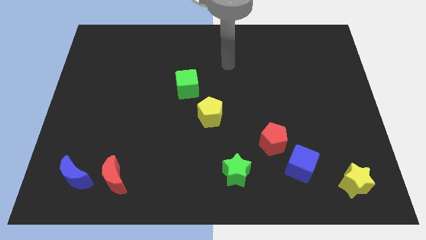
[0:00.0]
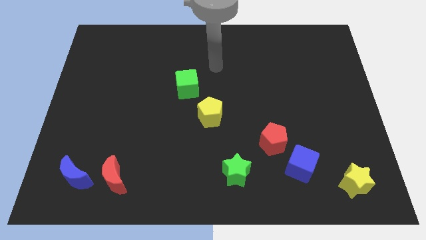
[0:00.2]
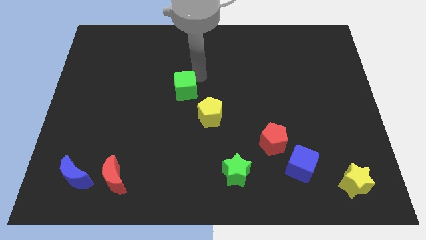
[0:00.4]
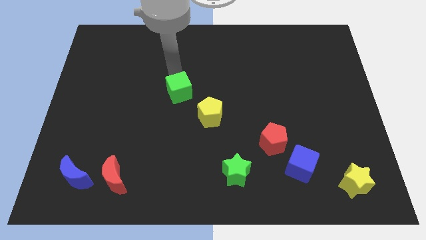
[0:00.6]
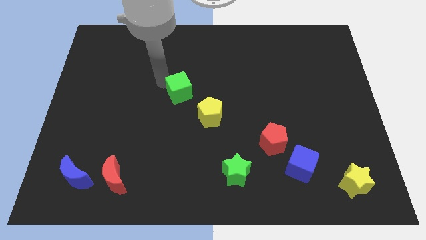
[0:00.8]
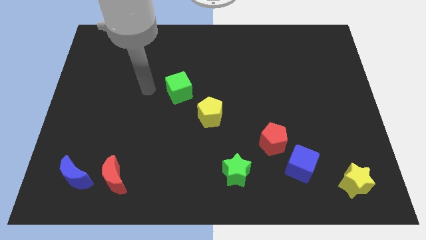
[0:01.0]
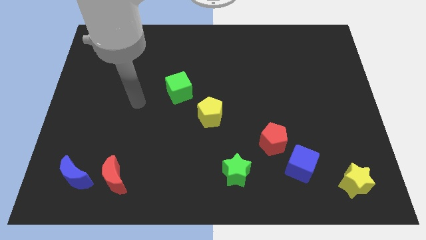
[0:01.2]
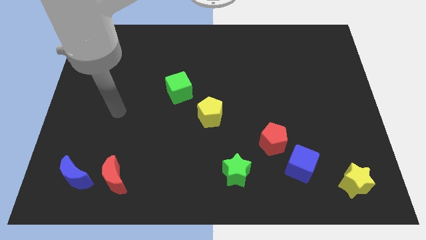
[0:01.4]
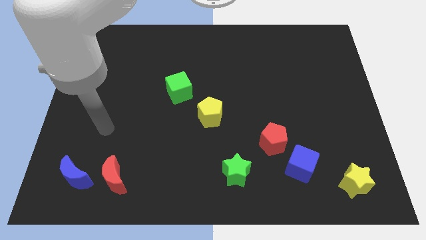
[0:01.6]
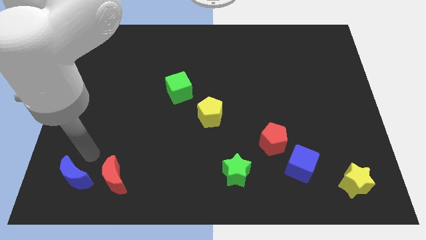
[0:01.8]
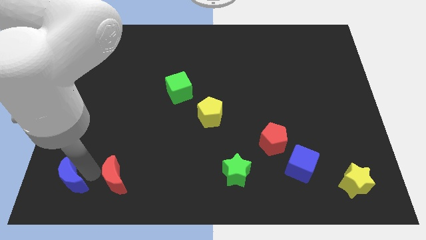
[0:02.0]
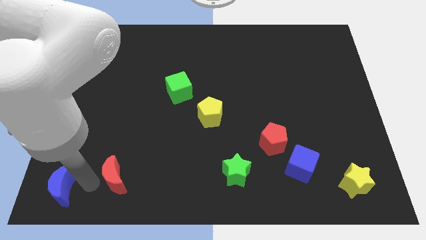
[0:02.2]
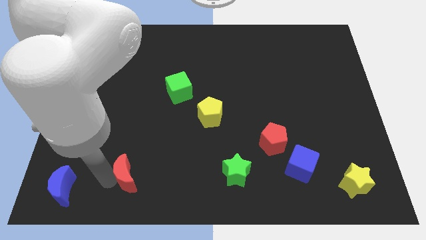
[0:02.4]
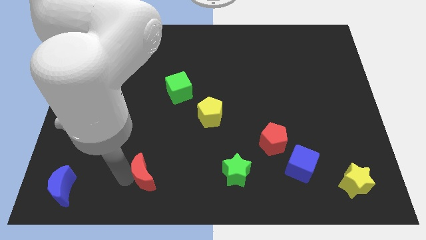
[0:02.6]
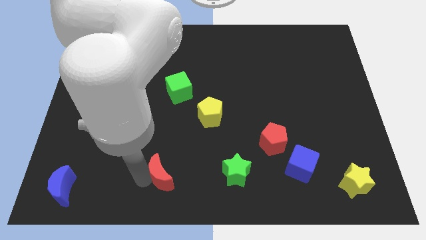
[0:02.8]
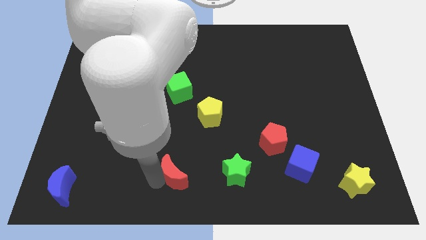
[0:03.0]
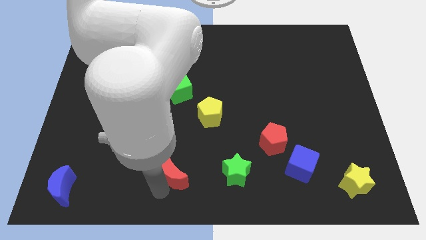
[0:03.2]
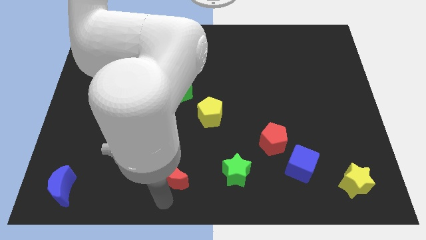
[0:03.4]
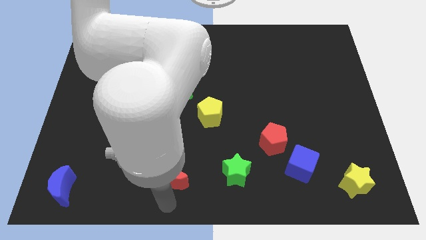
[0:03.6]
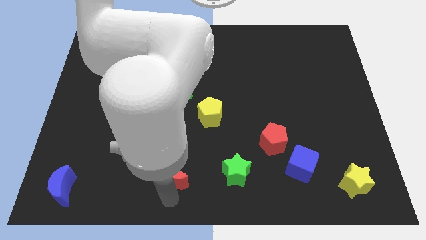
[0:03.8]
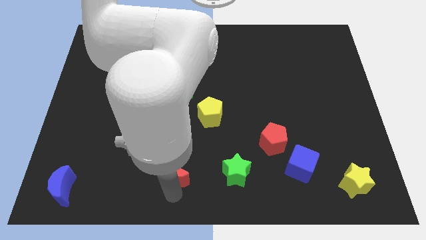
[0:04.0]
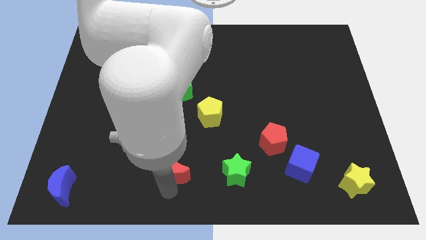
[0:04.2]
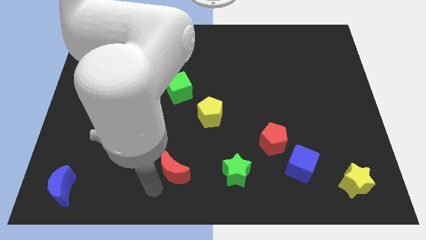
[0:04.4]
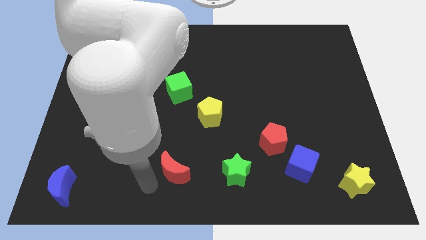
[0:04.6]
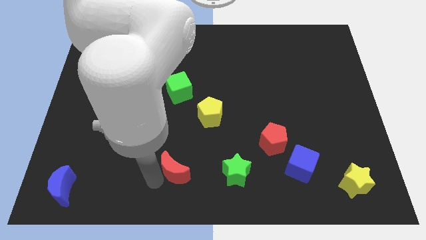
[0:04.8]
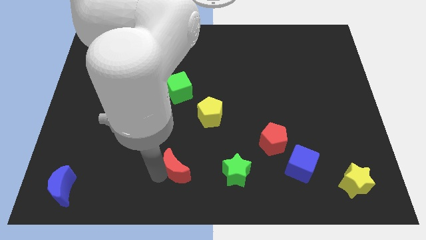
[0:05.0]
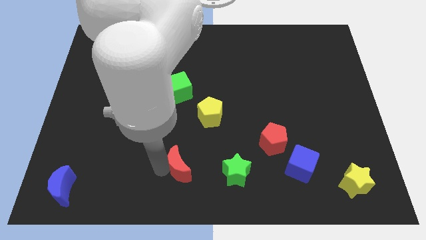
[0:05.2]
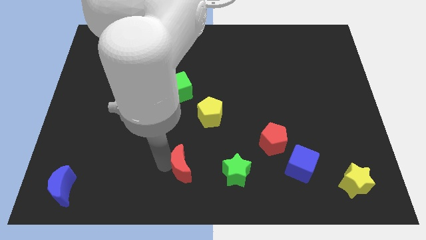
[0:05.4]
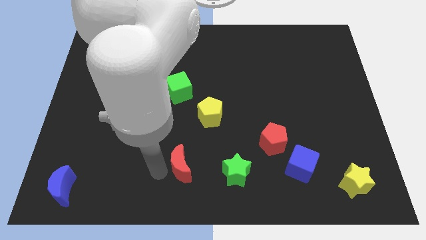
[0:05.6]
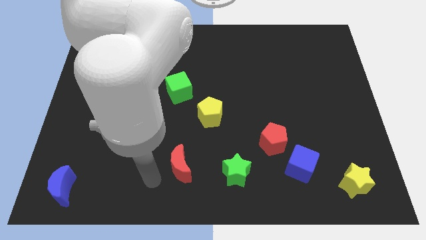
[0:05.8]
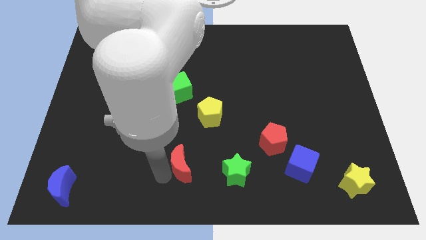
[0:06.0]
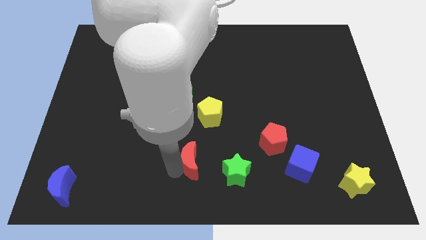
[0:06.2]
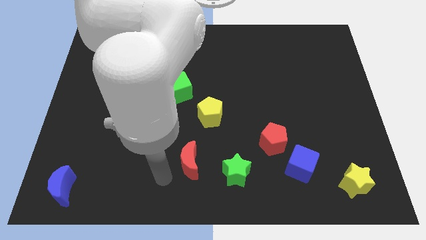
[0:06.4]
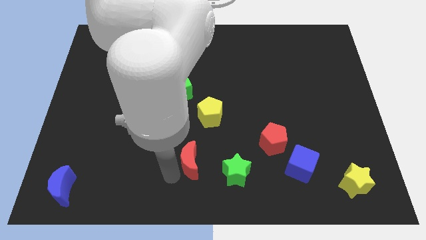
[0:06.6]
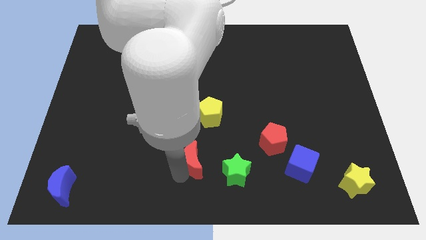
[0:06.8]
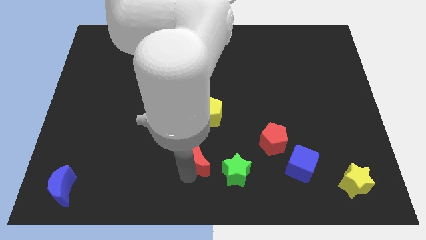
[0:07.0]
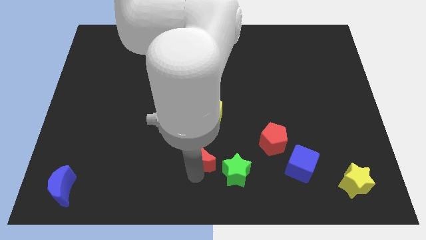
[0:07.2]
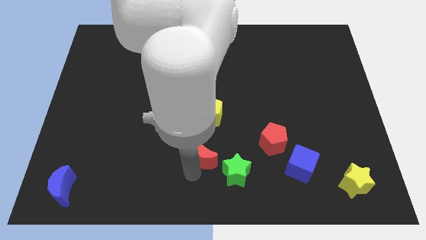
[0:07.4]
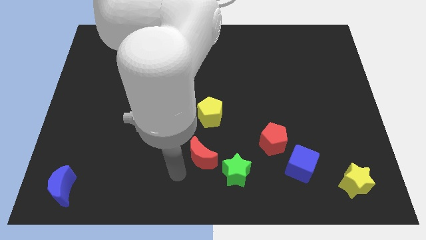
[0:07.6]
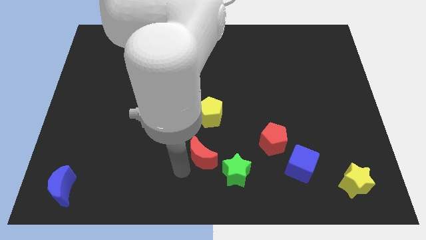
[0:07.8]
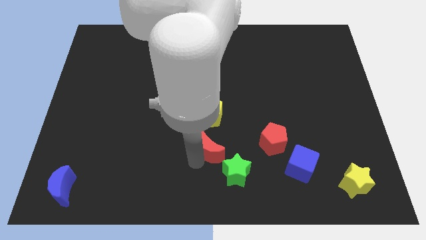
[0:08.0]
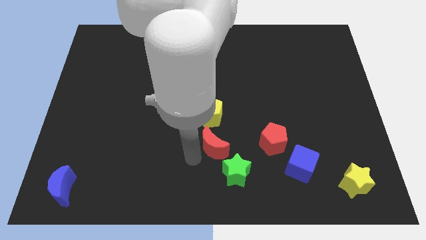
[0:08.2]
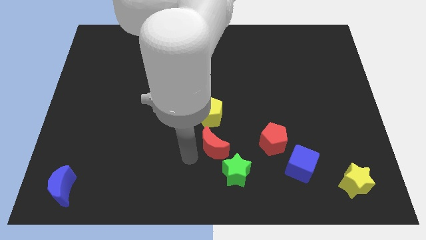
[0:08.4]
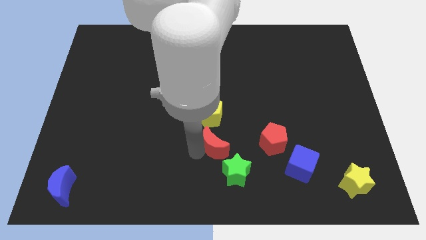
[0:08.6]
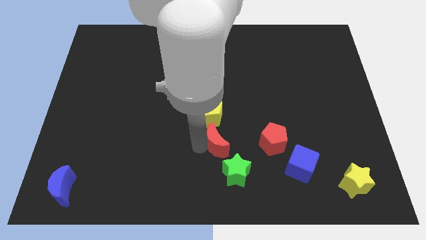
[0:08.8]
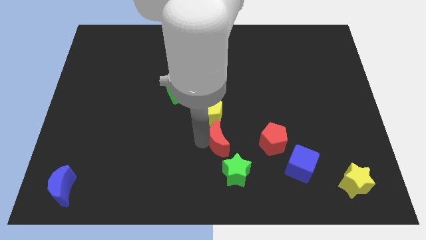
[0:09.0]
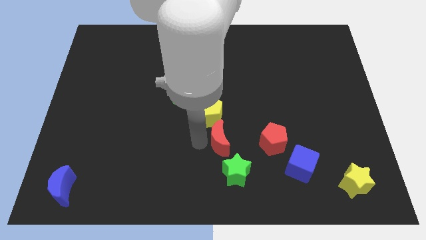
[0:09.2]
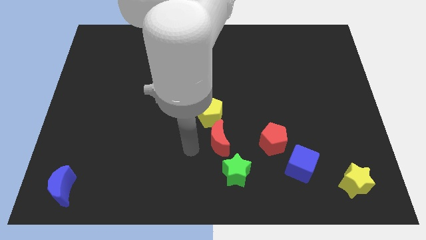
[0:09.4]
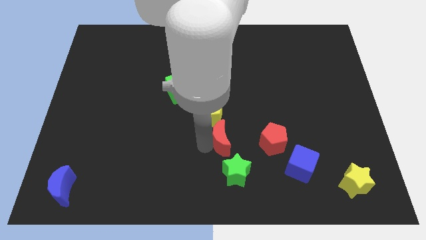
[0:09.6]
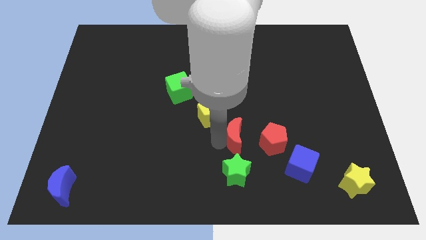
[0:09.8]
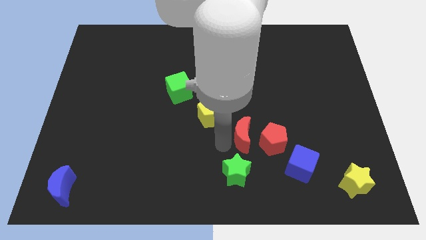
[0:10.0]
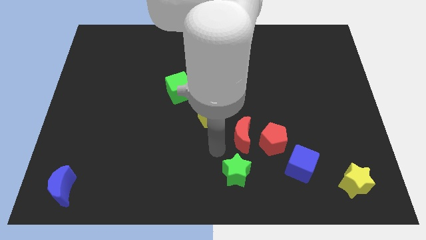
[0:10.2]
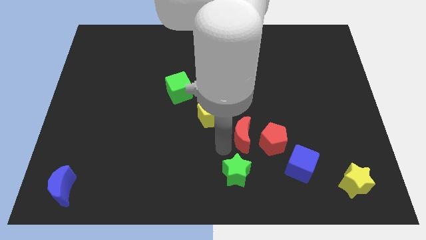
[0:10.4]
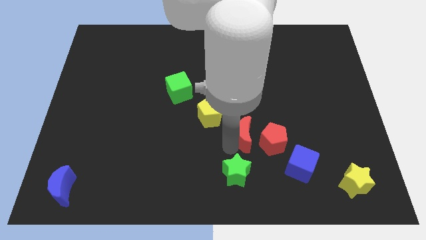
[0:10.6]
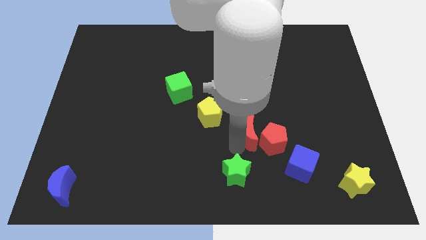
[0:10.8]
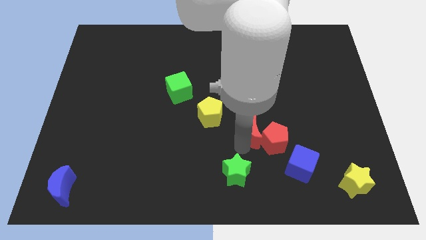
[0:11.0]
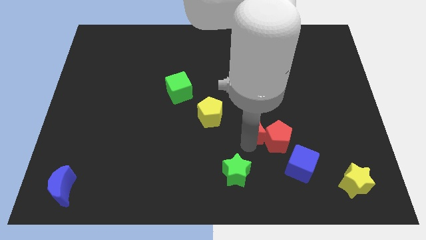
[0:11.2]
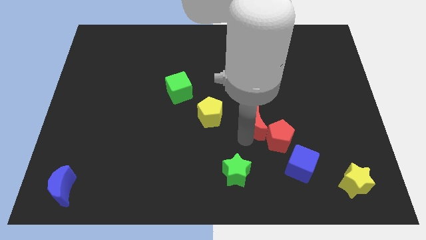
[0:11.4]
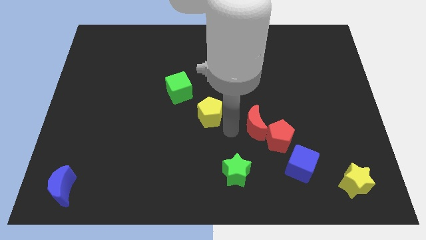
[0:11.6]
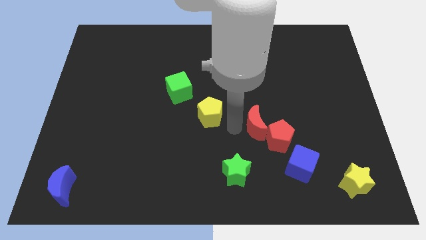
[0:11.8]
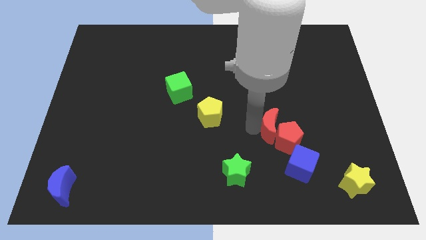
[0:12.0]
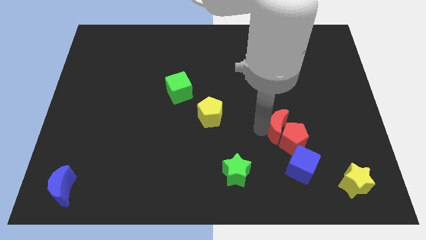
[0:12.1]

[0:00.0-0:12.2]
push the red moon above the blue cube

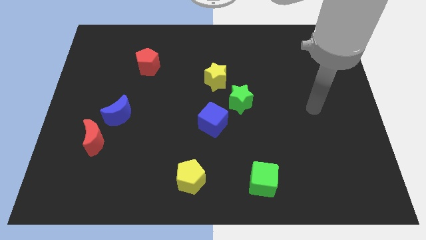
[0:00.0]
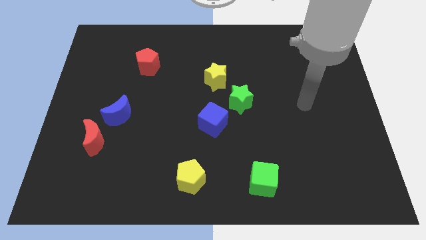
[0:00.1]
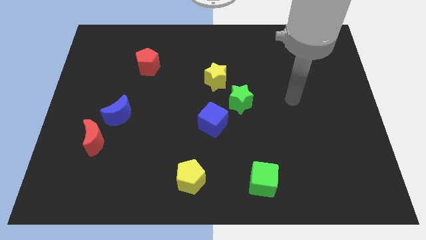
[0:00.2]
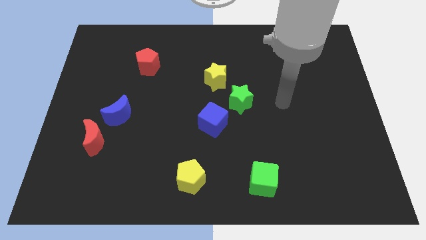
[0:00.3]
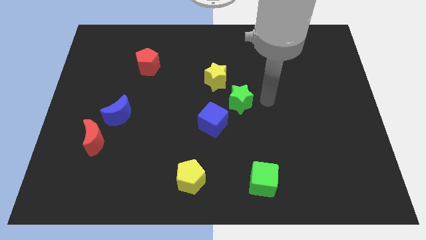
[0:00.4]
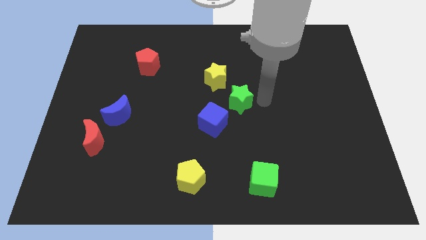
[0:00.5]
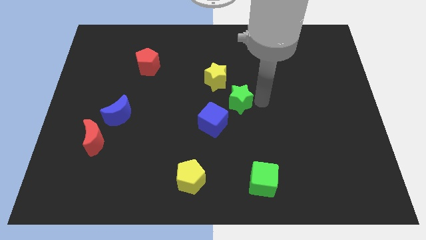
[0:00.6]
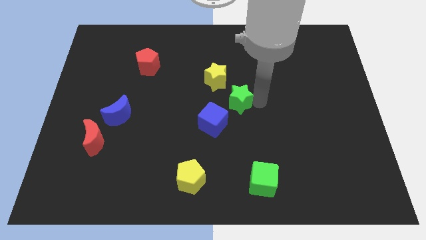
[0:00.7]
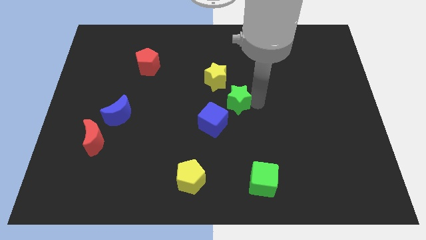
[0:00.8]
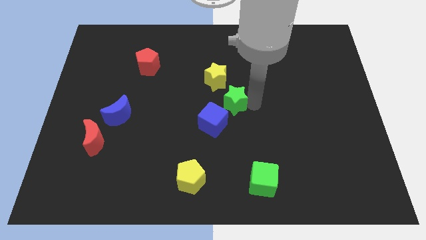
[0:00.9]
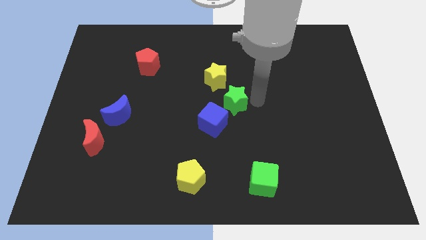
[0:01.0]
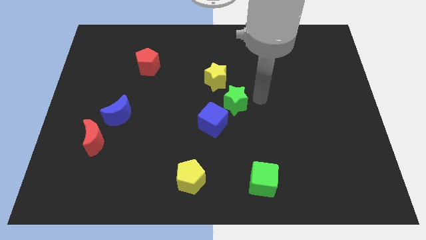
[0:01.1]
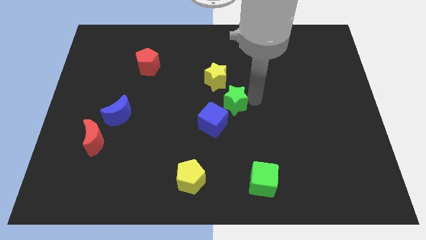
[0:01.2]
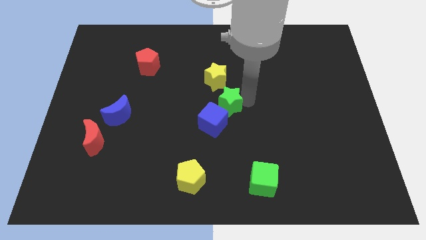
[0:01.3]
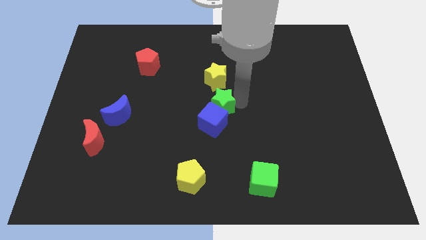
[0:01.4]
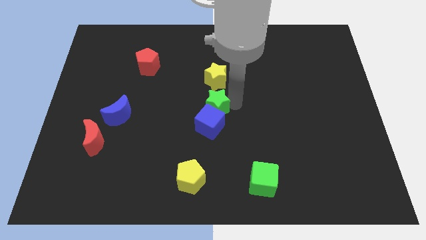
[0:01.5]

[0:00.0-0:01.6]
put the green star to the top left of the blue cube
